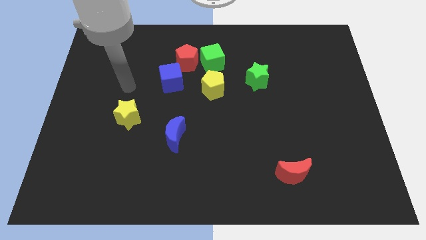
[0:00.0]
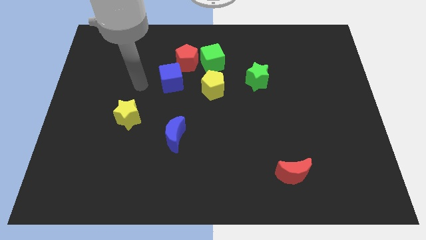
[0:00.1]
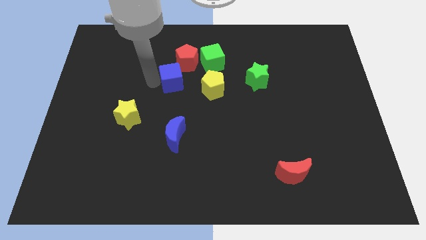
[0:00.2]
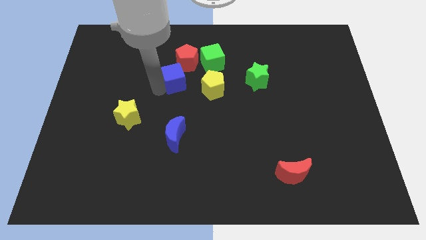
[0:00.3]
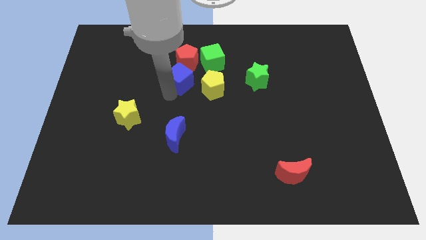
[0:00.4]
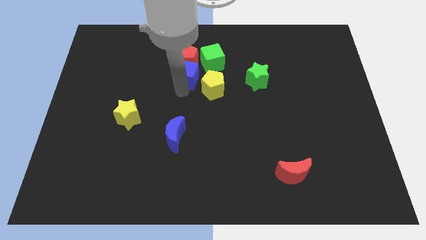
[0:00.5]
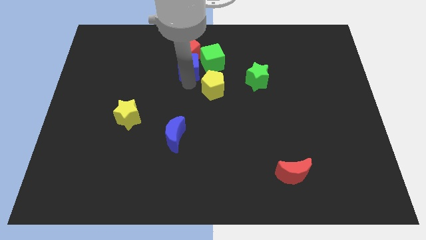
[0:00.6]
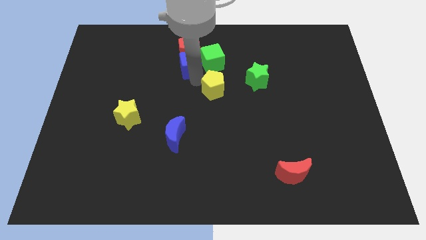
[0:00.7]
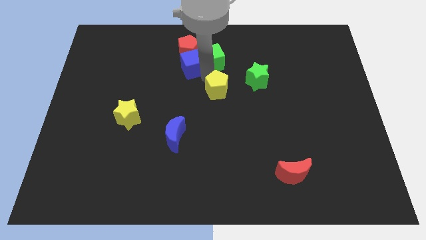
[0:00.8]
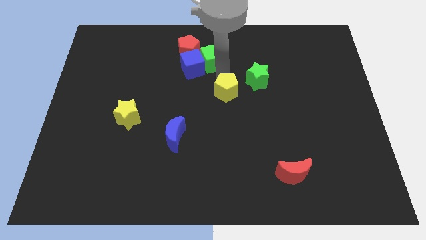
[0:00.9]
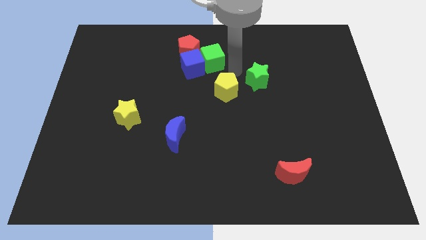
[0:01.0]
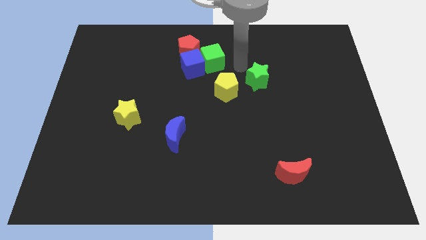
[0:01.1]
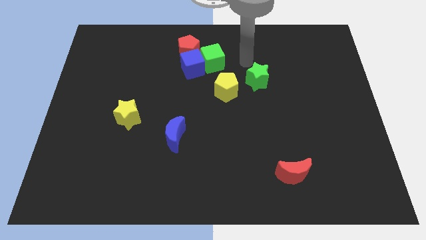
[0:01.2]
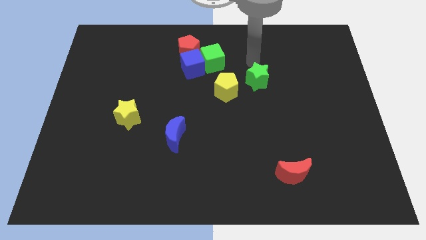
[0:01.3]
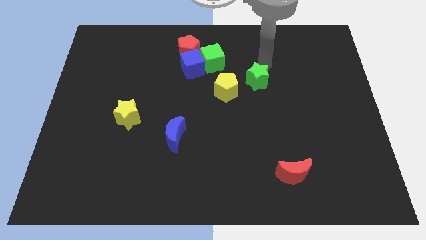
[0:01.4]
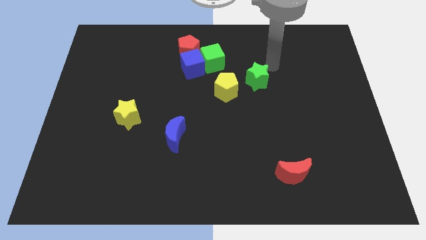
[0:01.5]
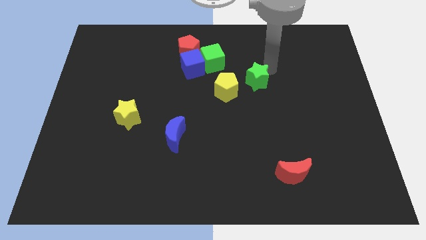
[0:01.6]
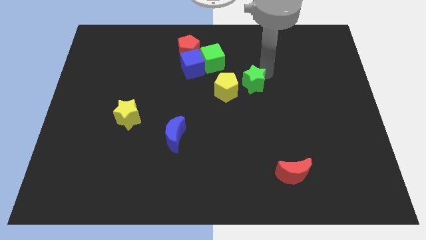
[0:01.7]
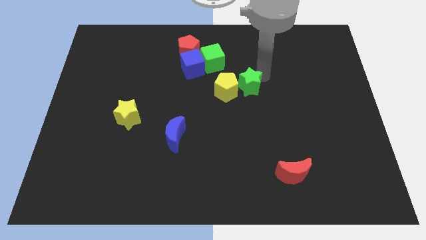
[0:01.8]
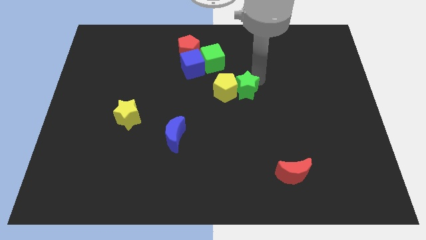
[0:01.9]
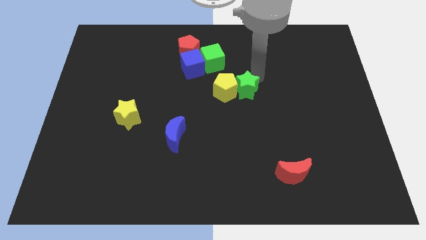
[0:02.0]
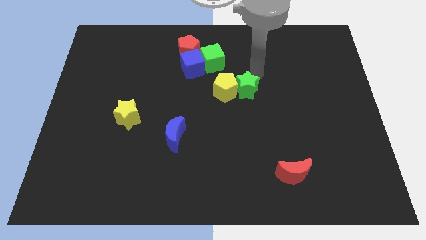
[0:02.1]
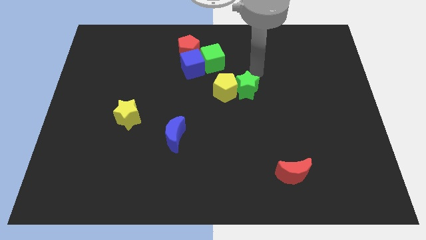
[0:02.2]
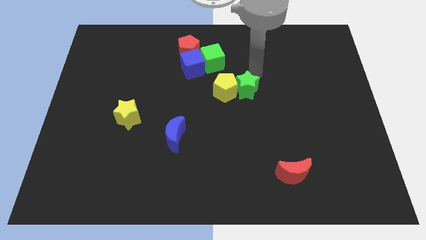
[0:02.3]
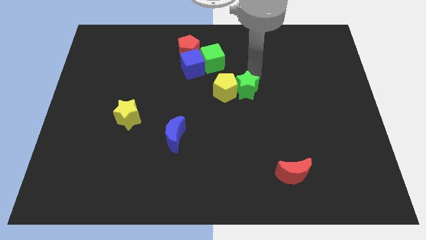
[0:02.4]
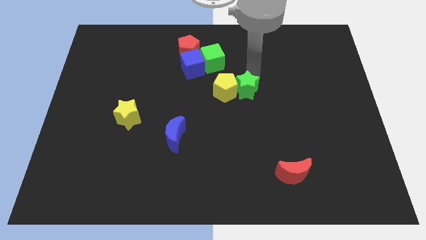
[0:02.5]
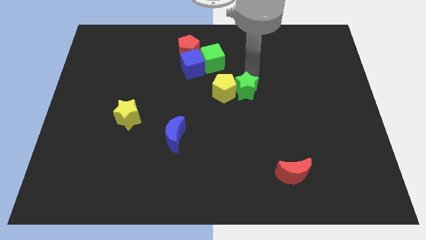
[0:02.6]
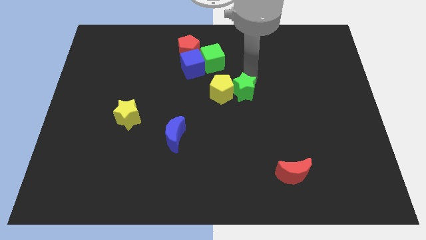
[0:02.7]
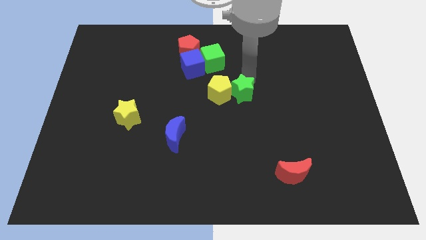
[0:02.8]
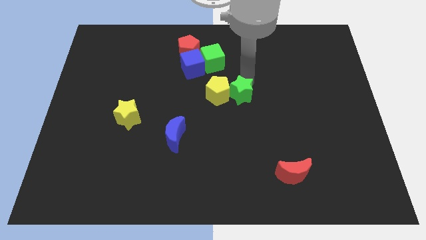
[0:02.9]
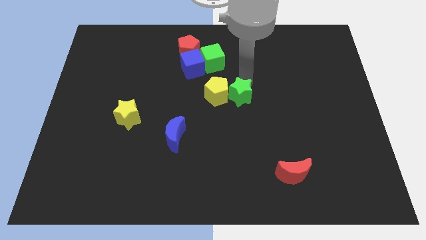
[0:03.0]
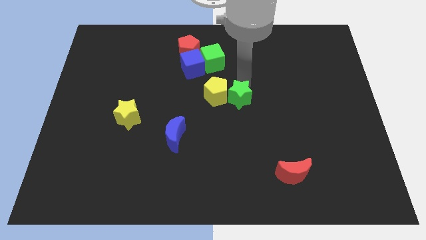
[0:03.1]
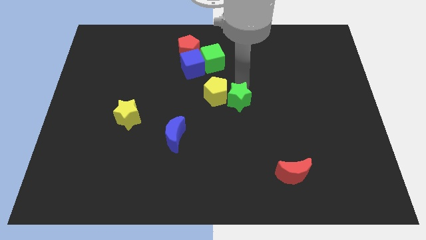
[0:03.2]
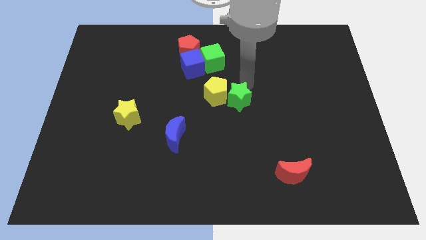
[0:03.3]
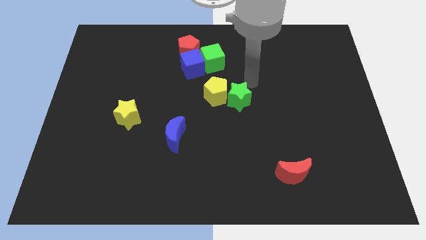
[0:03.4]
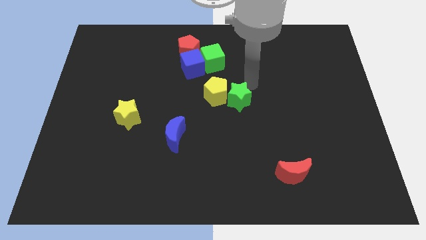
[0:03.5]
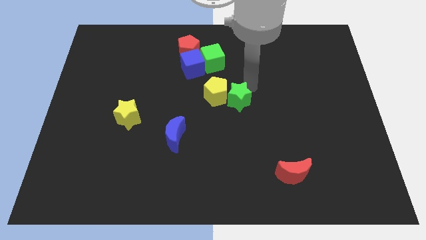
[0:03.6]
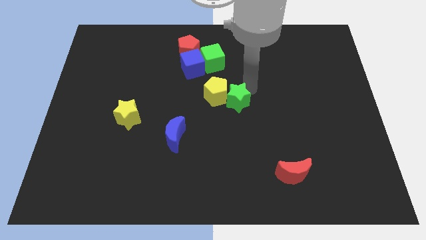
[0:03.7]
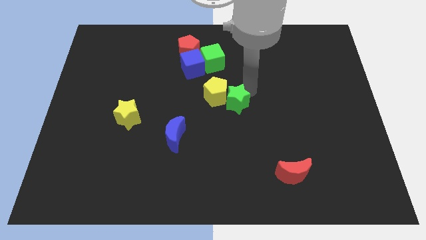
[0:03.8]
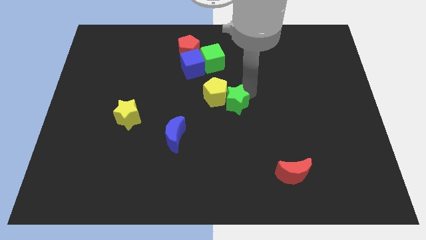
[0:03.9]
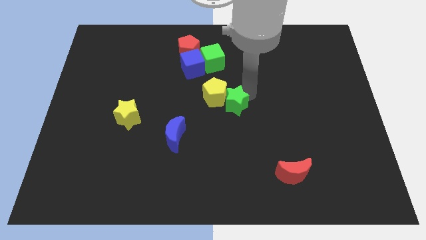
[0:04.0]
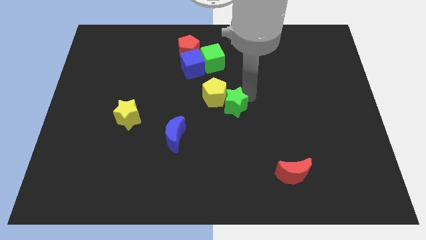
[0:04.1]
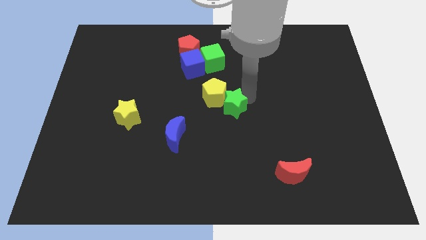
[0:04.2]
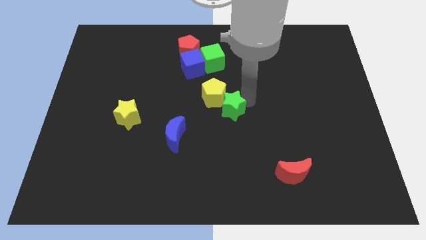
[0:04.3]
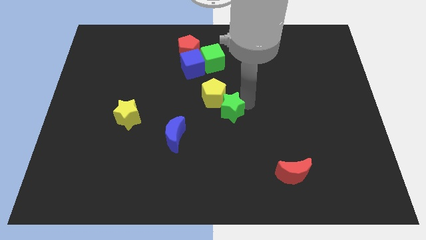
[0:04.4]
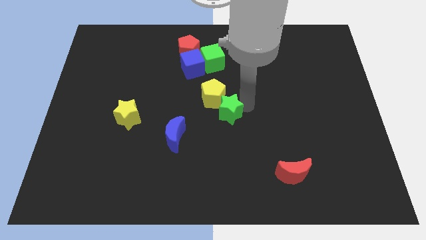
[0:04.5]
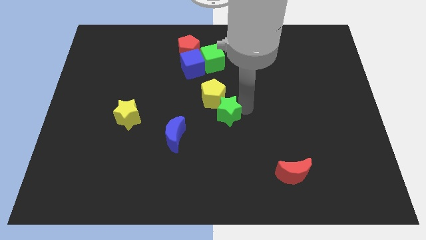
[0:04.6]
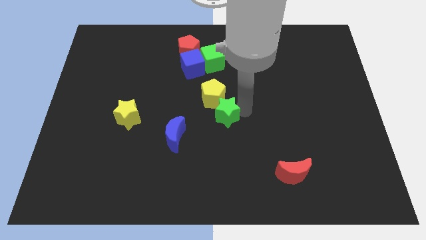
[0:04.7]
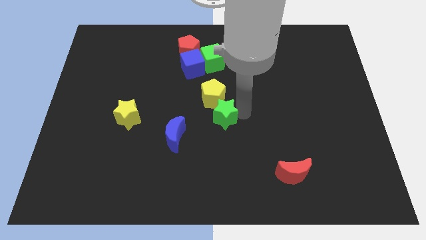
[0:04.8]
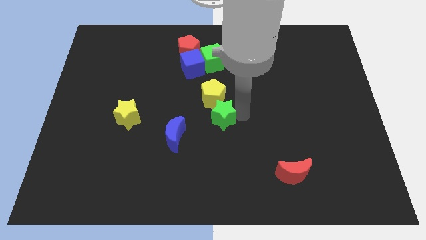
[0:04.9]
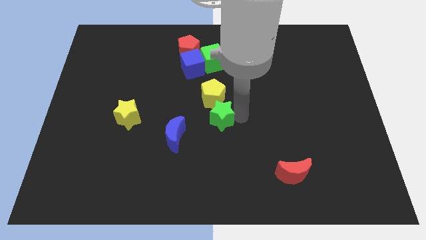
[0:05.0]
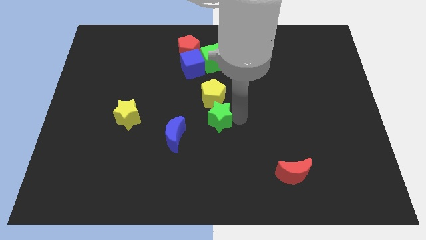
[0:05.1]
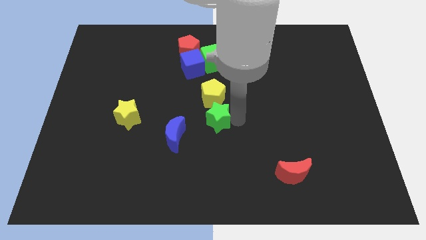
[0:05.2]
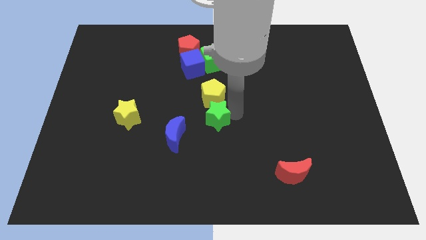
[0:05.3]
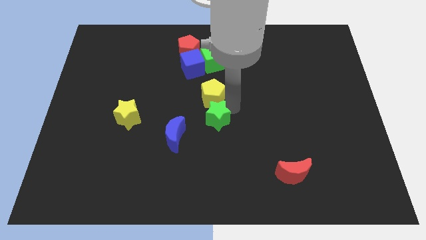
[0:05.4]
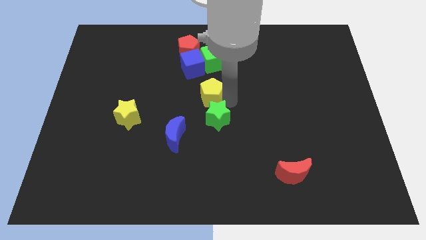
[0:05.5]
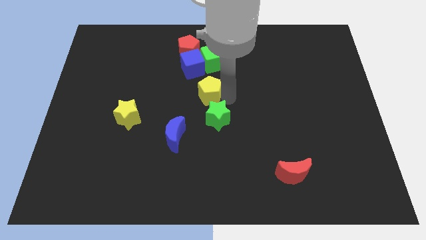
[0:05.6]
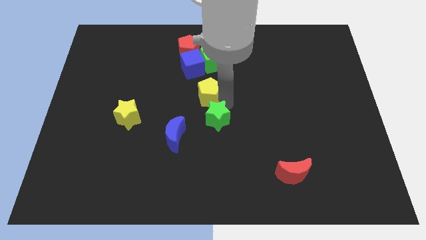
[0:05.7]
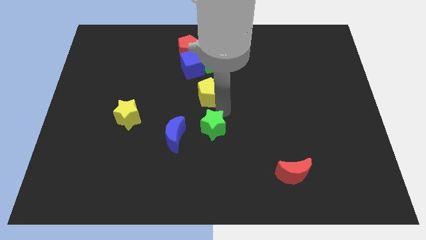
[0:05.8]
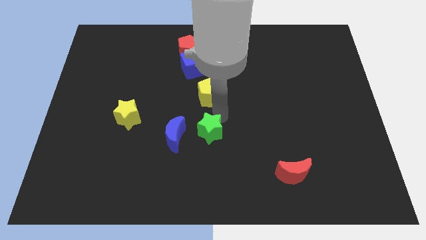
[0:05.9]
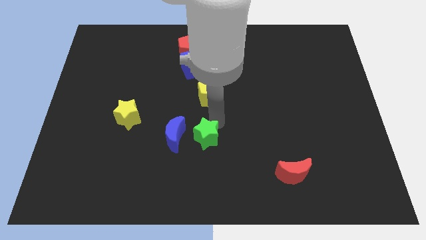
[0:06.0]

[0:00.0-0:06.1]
push the green star down and then to the left

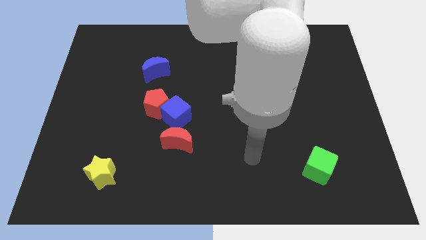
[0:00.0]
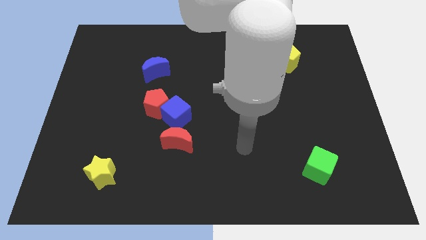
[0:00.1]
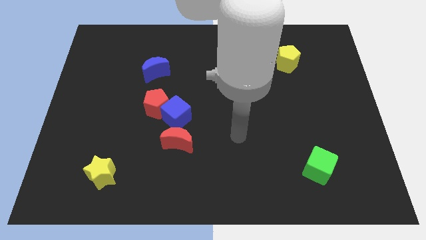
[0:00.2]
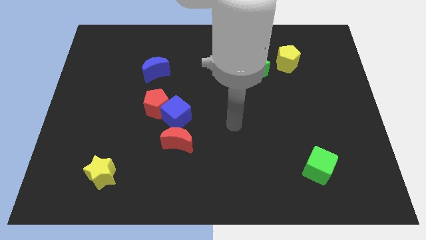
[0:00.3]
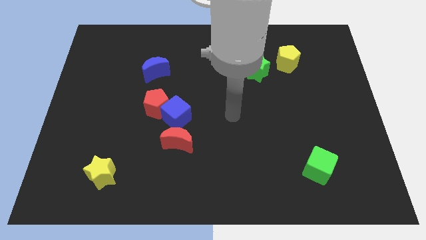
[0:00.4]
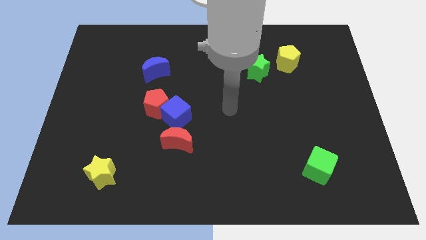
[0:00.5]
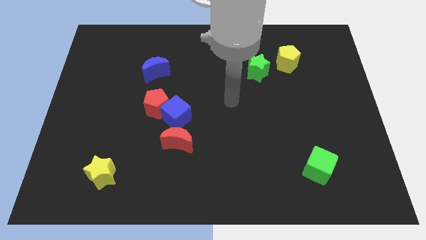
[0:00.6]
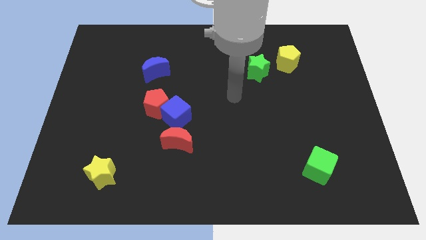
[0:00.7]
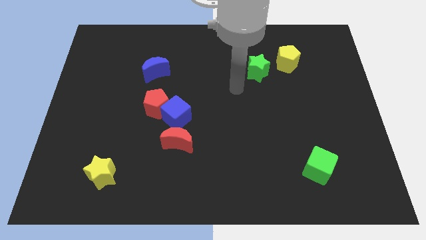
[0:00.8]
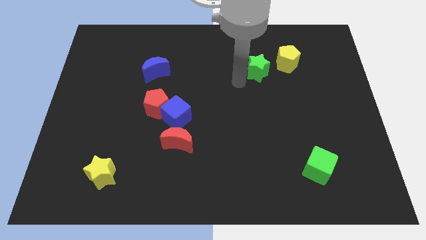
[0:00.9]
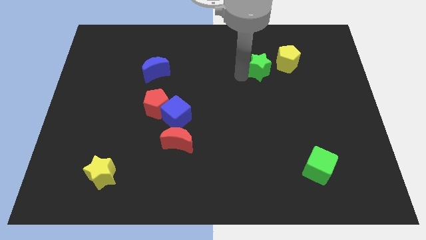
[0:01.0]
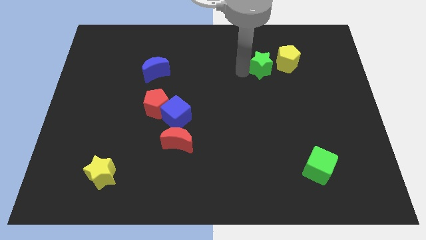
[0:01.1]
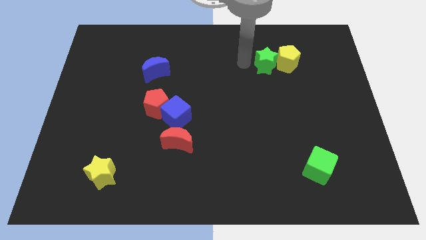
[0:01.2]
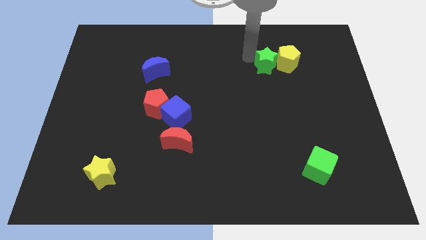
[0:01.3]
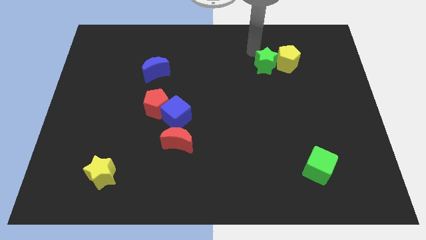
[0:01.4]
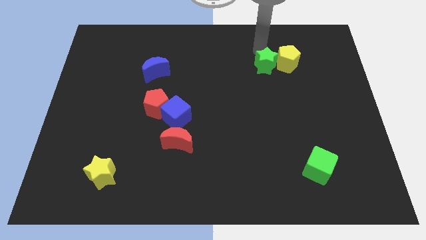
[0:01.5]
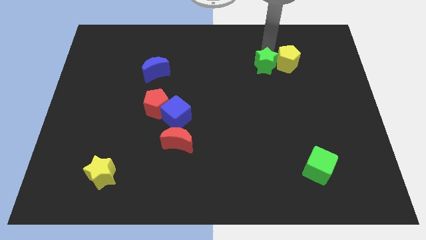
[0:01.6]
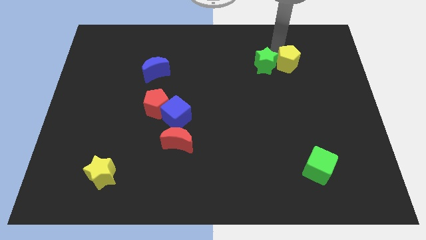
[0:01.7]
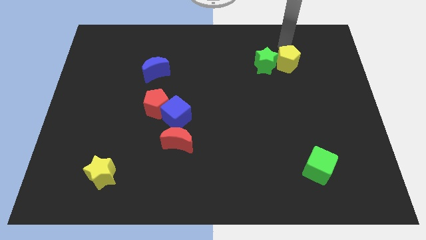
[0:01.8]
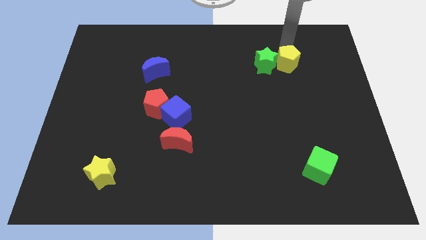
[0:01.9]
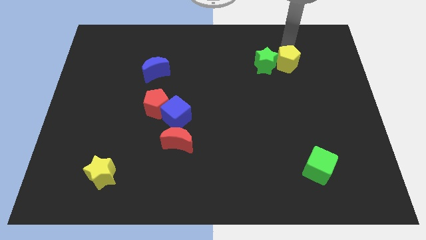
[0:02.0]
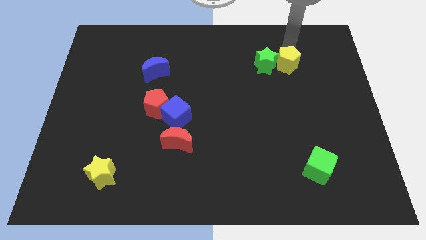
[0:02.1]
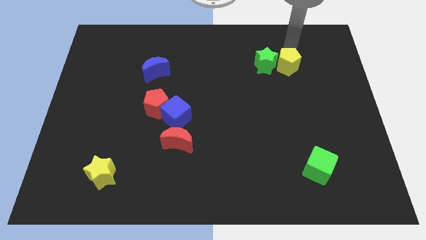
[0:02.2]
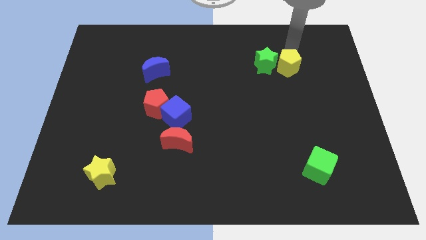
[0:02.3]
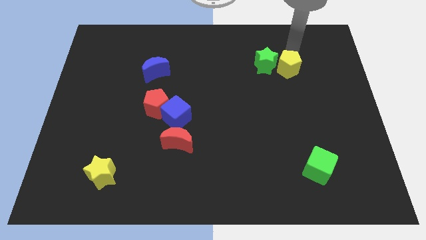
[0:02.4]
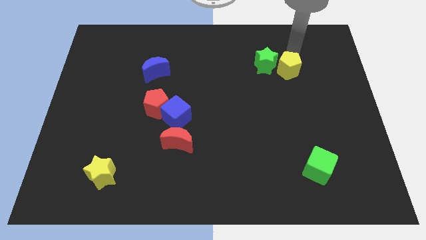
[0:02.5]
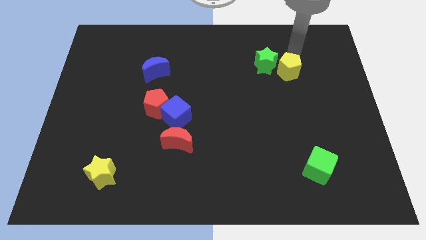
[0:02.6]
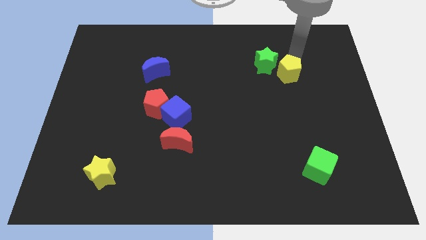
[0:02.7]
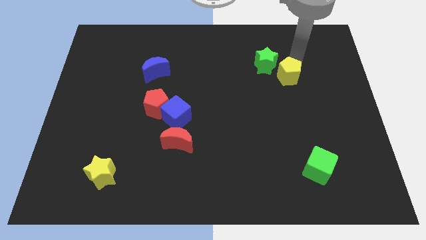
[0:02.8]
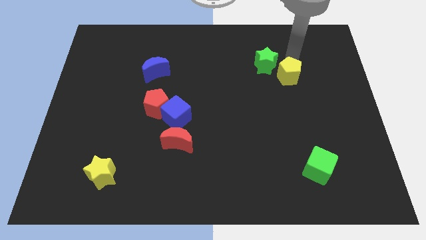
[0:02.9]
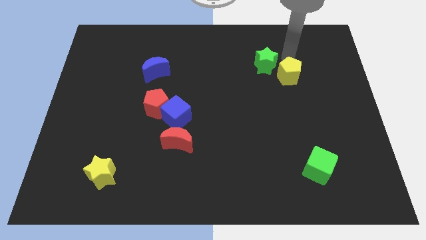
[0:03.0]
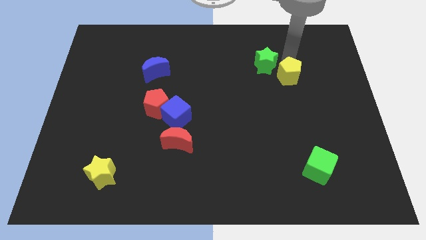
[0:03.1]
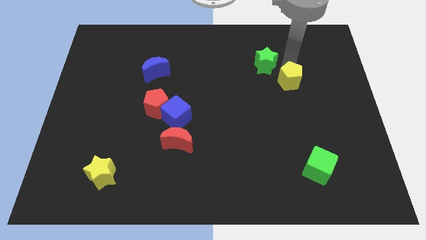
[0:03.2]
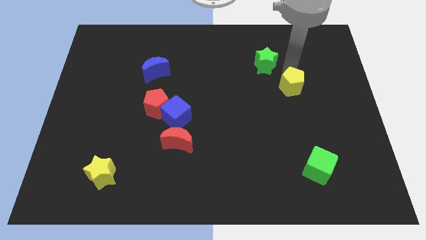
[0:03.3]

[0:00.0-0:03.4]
slightly slide the yellow pentagon downwards
